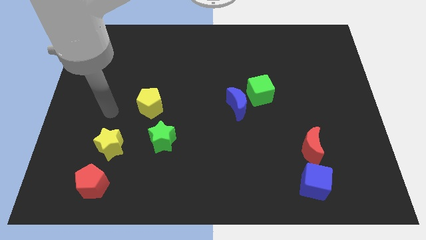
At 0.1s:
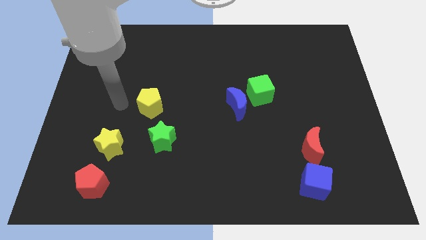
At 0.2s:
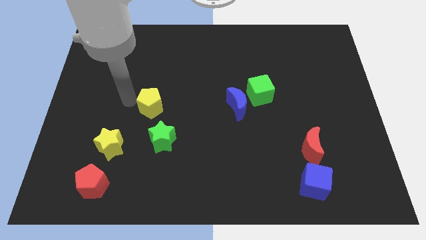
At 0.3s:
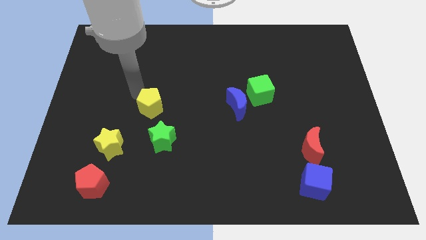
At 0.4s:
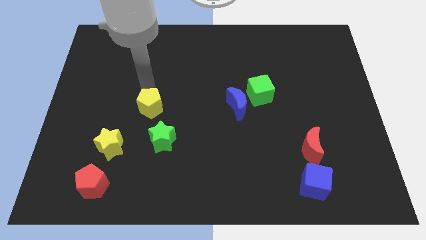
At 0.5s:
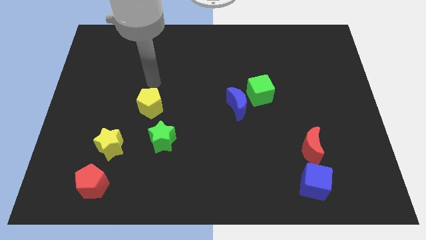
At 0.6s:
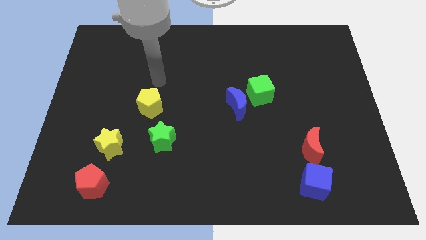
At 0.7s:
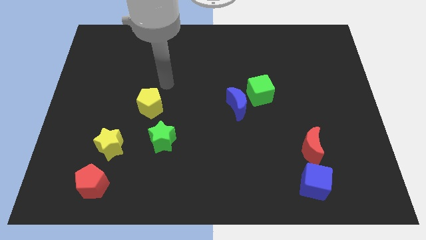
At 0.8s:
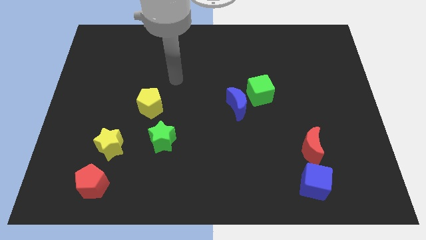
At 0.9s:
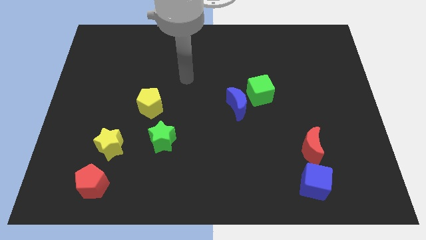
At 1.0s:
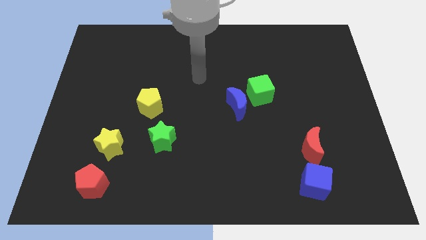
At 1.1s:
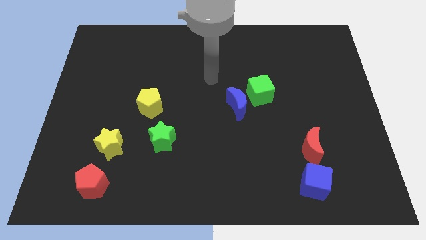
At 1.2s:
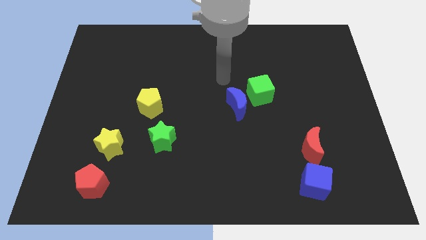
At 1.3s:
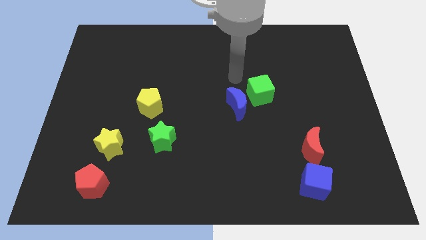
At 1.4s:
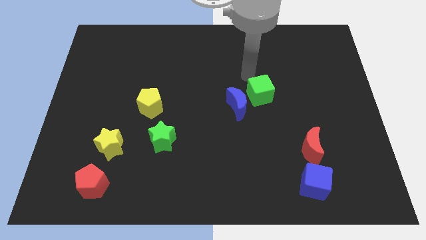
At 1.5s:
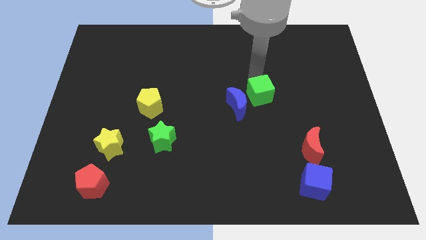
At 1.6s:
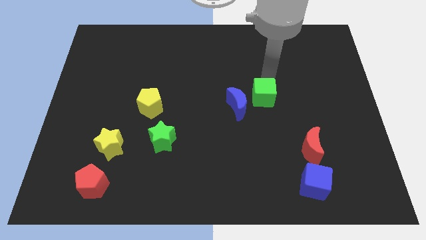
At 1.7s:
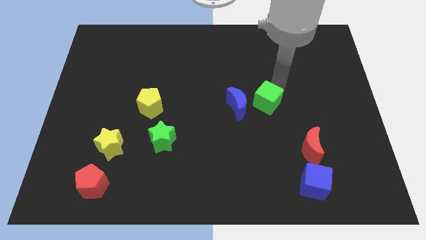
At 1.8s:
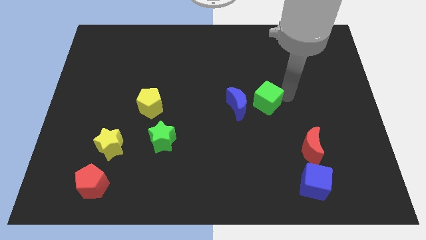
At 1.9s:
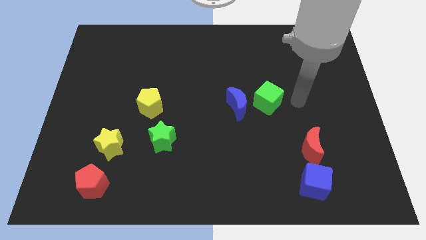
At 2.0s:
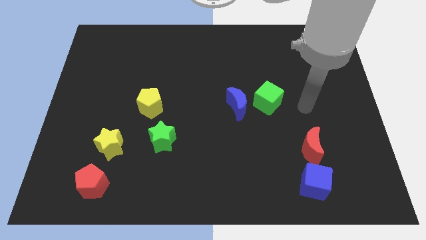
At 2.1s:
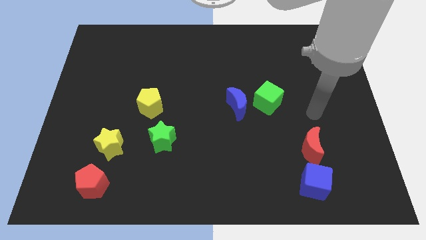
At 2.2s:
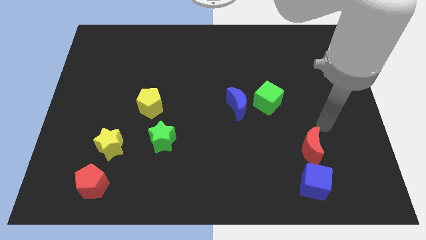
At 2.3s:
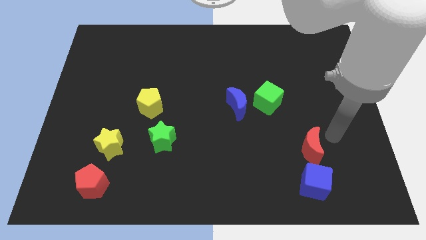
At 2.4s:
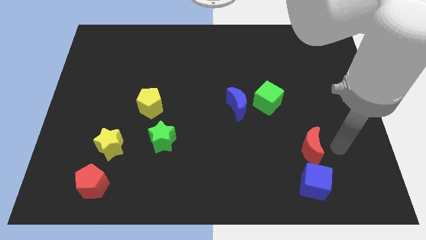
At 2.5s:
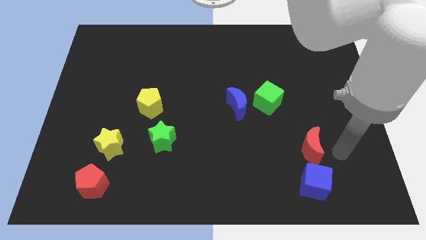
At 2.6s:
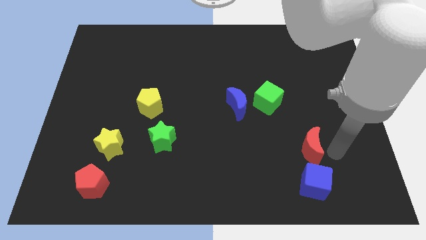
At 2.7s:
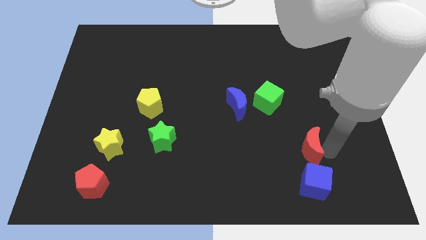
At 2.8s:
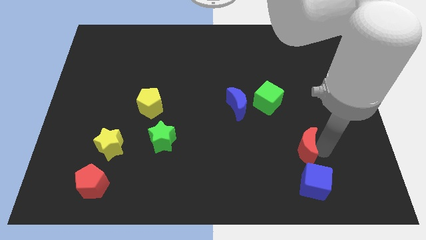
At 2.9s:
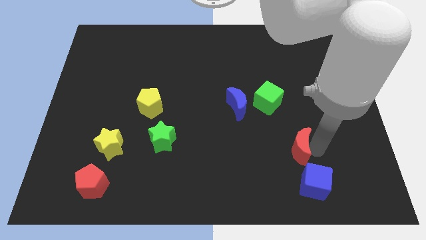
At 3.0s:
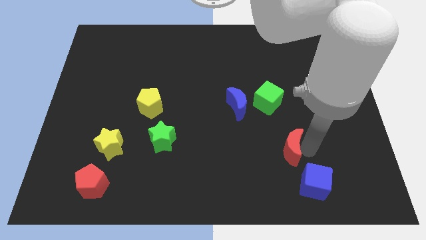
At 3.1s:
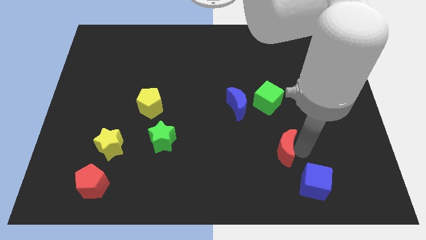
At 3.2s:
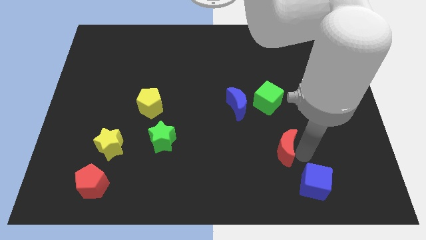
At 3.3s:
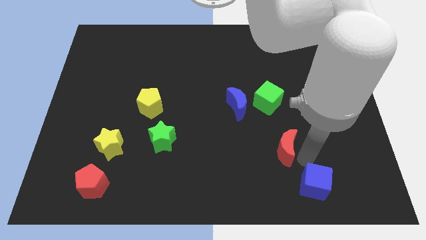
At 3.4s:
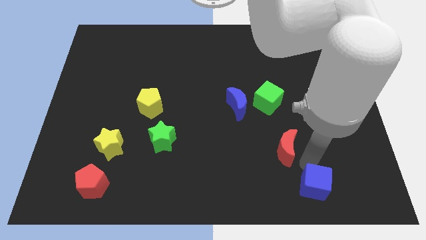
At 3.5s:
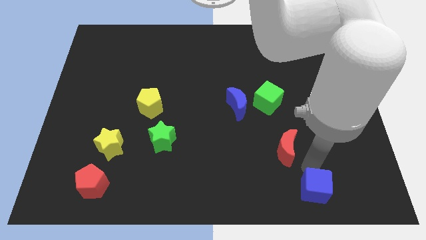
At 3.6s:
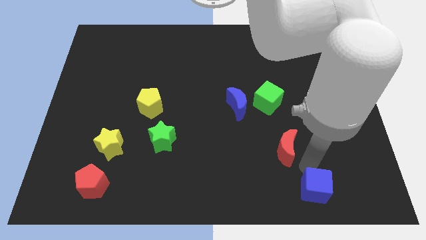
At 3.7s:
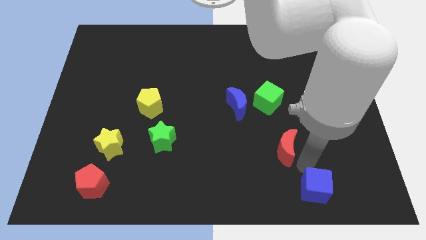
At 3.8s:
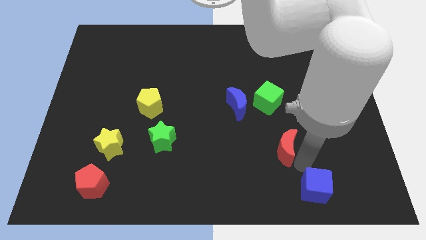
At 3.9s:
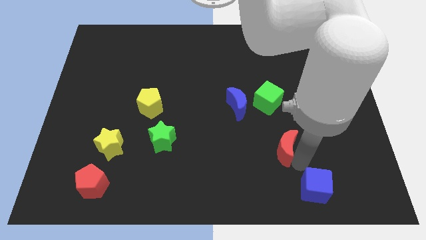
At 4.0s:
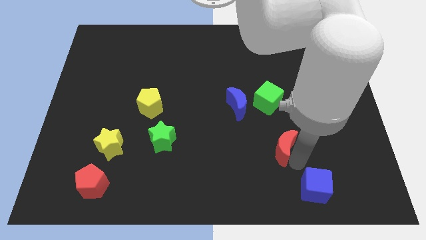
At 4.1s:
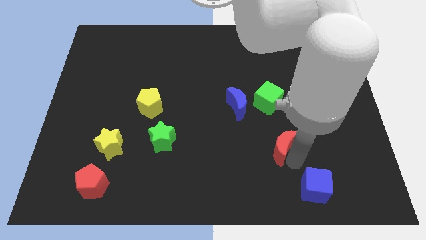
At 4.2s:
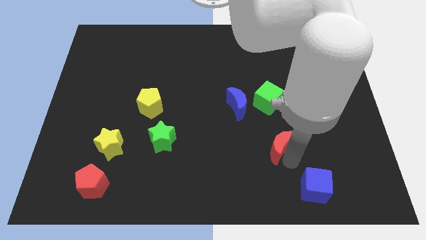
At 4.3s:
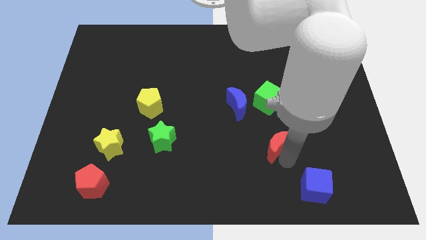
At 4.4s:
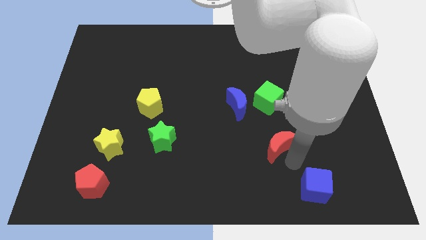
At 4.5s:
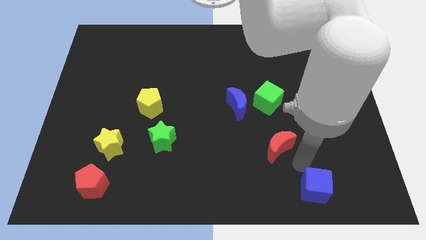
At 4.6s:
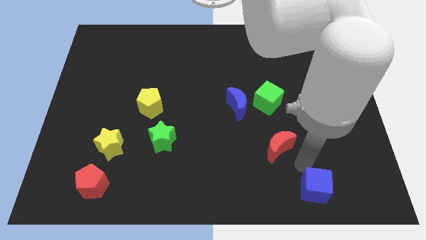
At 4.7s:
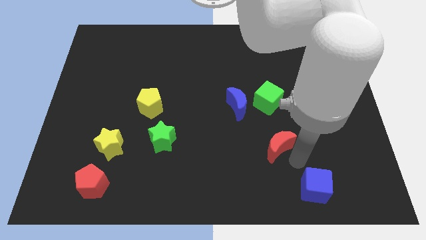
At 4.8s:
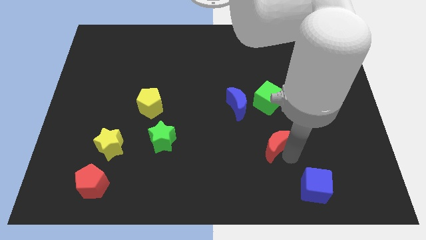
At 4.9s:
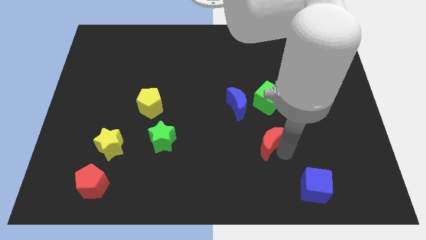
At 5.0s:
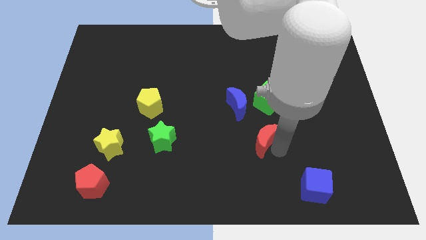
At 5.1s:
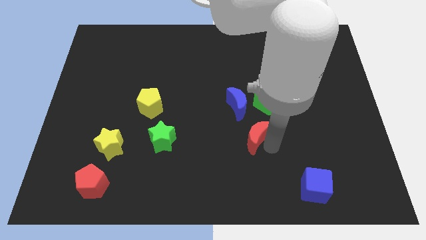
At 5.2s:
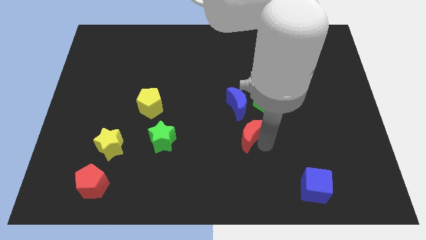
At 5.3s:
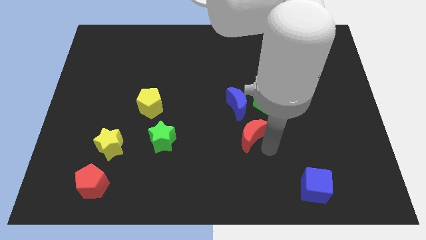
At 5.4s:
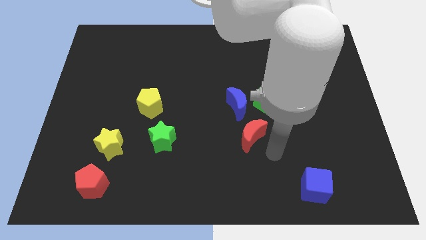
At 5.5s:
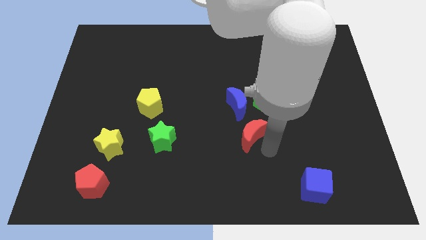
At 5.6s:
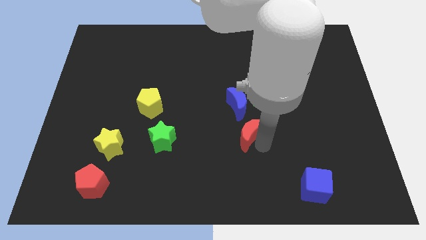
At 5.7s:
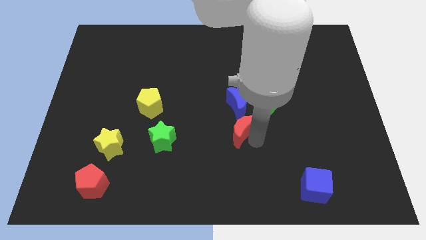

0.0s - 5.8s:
slide the red moon to the middle
